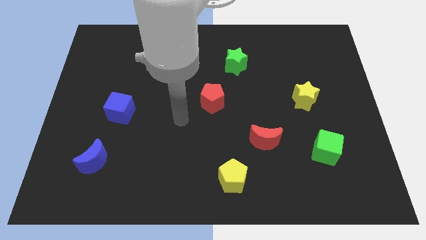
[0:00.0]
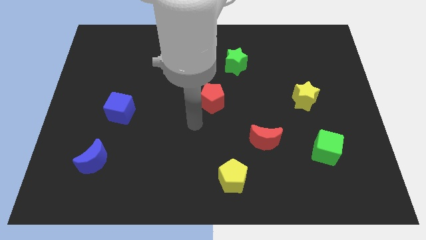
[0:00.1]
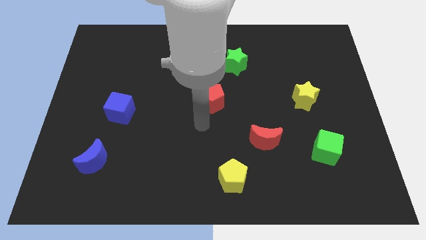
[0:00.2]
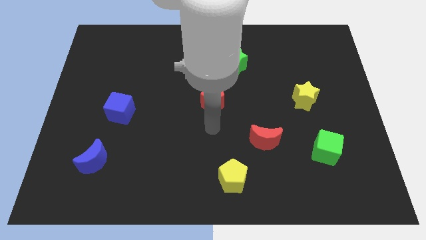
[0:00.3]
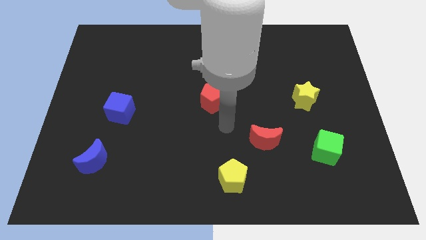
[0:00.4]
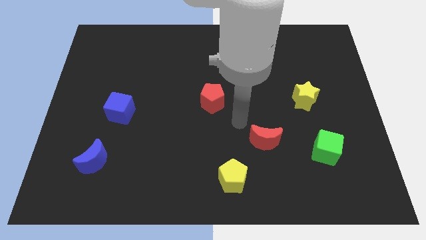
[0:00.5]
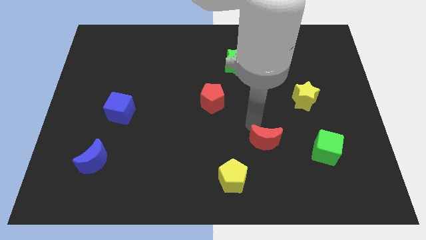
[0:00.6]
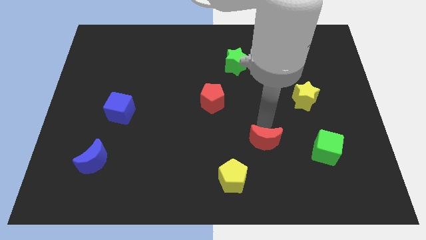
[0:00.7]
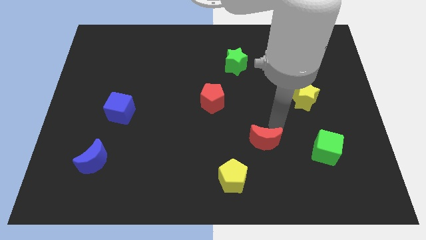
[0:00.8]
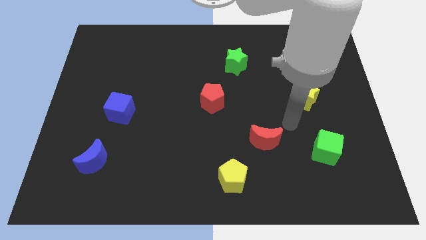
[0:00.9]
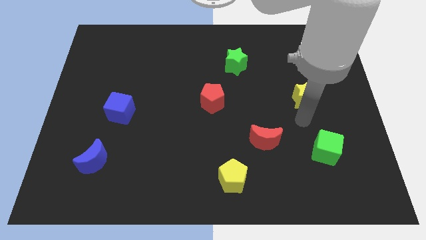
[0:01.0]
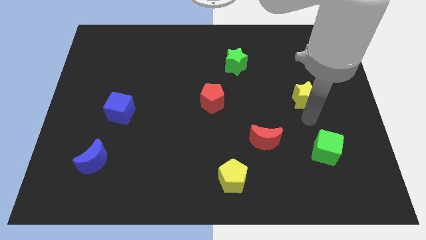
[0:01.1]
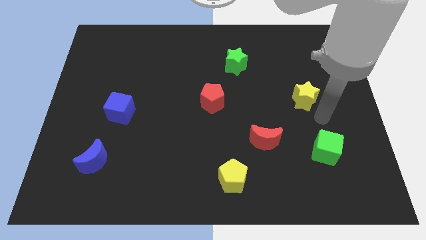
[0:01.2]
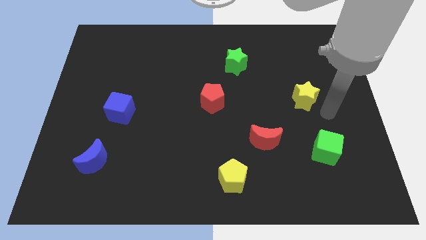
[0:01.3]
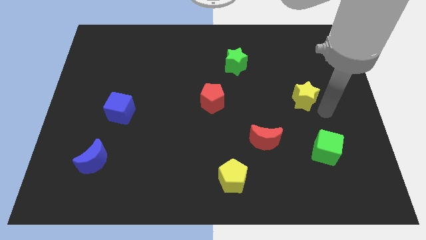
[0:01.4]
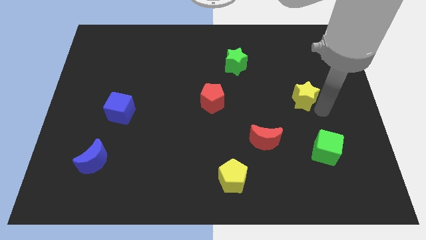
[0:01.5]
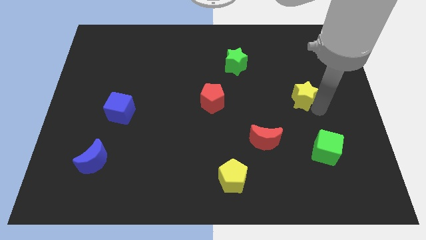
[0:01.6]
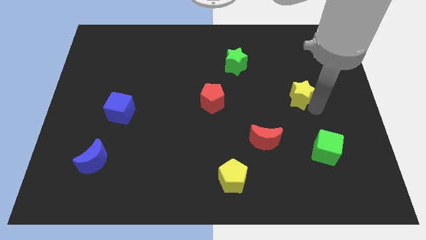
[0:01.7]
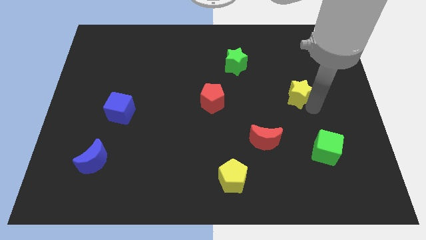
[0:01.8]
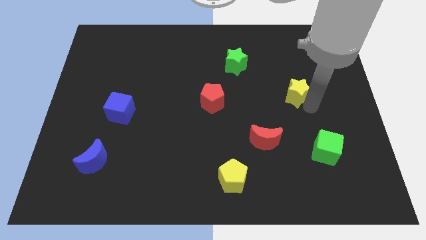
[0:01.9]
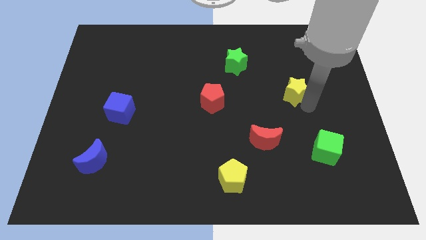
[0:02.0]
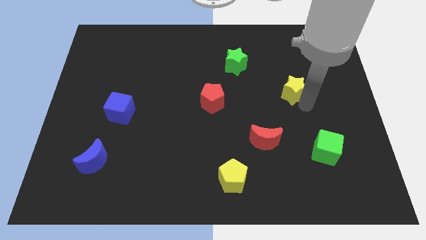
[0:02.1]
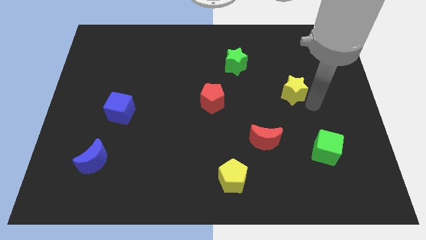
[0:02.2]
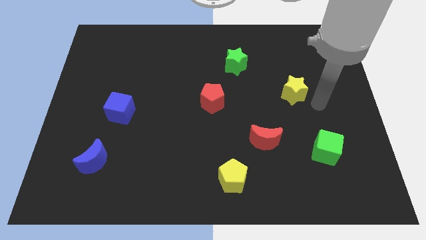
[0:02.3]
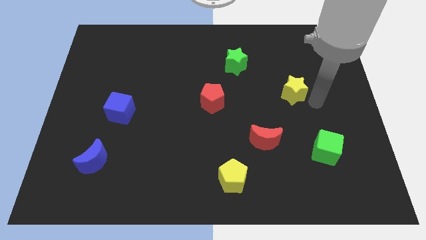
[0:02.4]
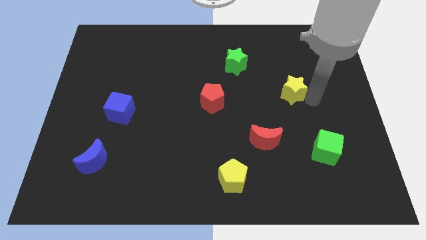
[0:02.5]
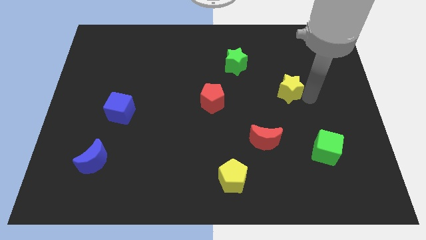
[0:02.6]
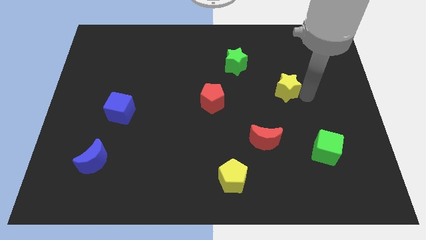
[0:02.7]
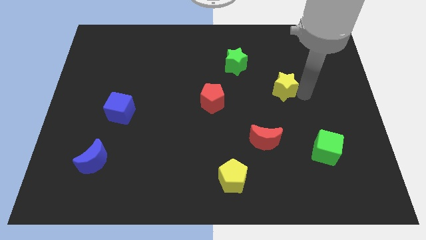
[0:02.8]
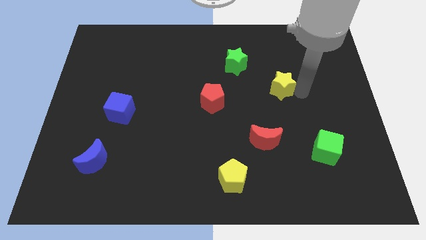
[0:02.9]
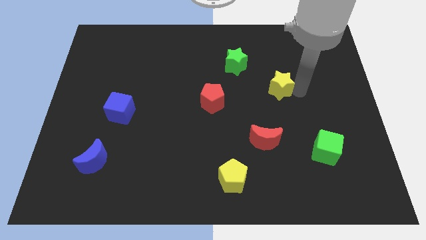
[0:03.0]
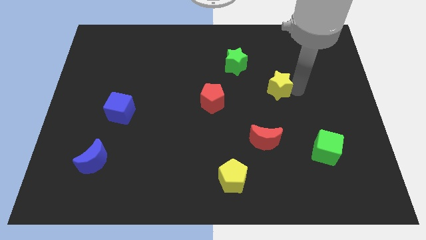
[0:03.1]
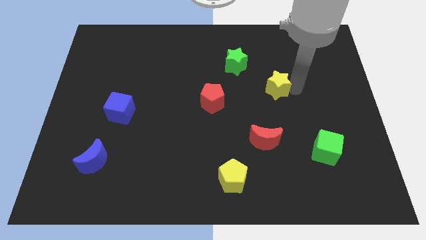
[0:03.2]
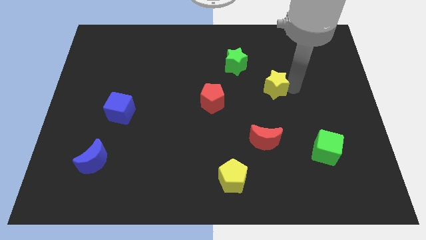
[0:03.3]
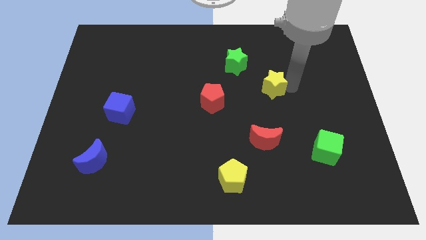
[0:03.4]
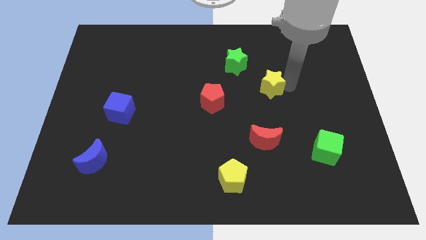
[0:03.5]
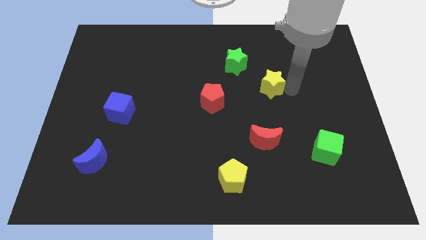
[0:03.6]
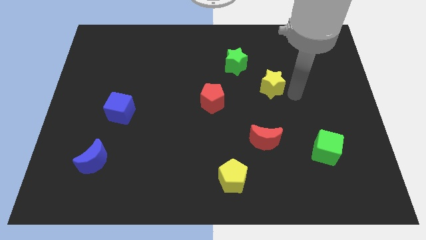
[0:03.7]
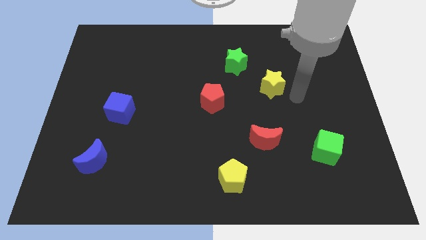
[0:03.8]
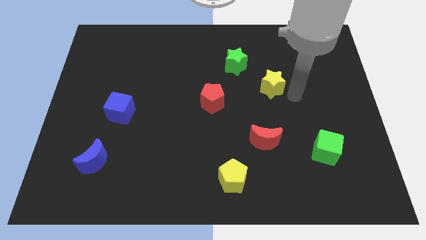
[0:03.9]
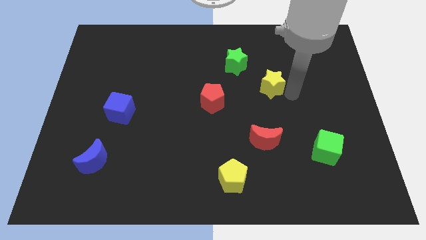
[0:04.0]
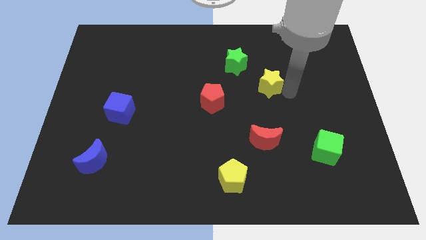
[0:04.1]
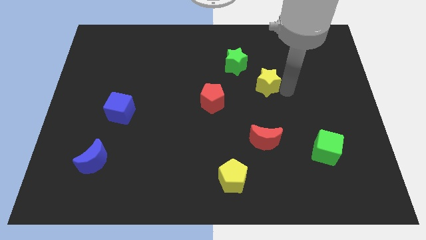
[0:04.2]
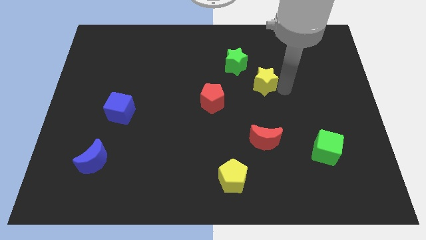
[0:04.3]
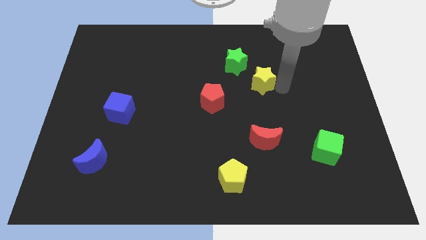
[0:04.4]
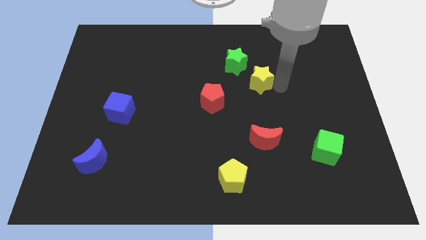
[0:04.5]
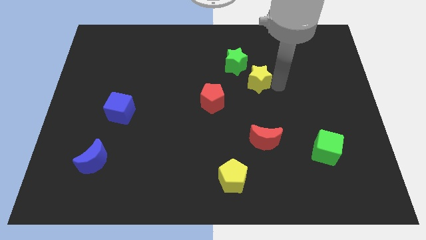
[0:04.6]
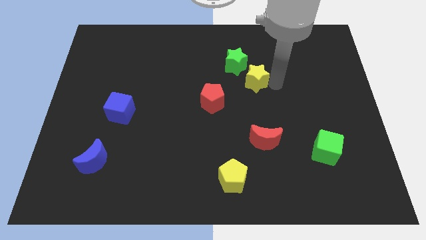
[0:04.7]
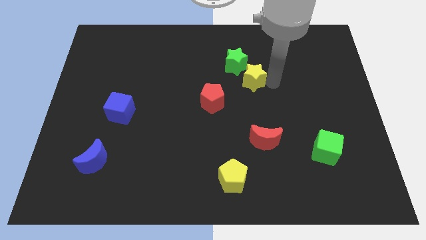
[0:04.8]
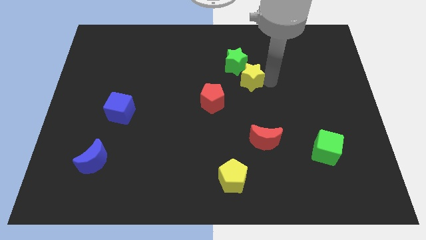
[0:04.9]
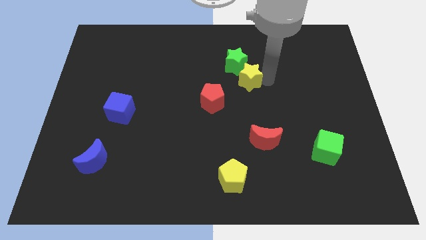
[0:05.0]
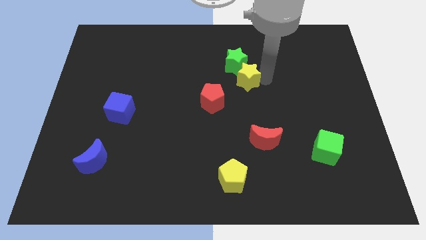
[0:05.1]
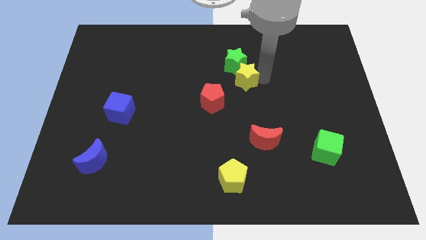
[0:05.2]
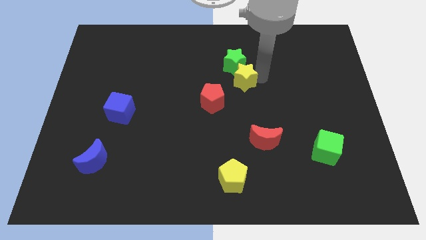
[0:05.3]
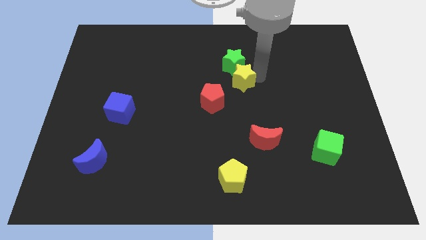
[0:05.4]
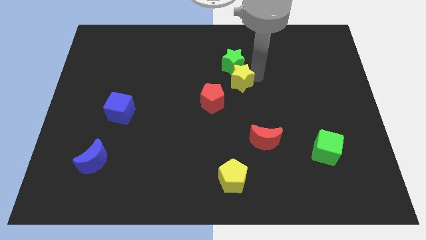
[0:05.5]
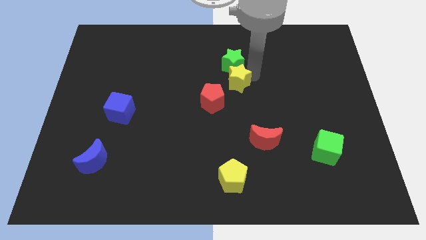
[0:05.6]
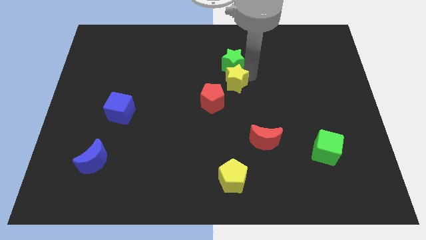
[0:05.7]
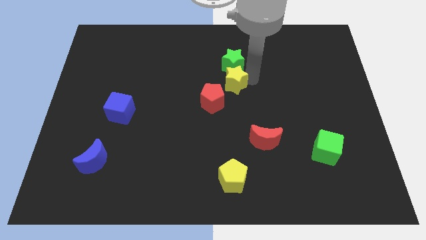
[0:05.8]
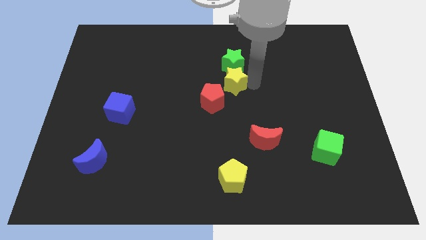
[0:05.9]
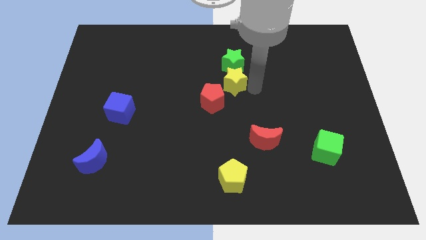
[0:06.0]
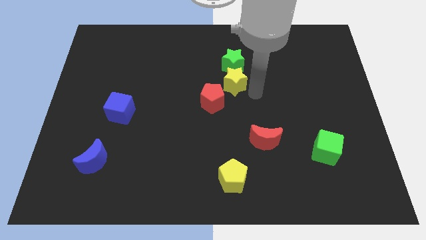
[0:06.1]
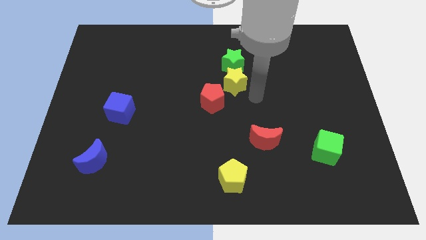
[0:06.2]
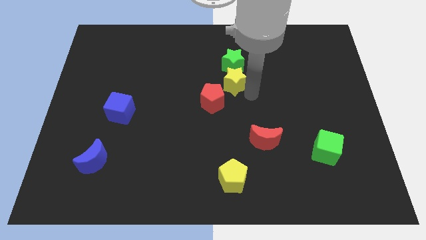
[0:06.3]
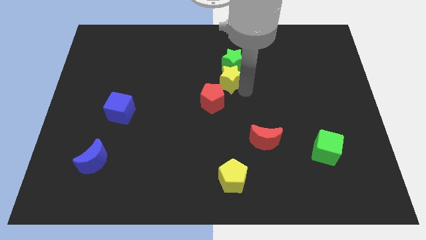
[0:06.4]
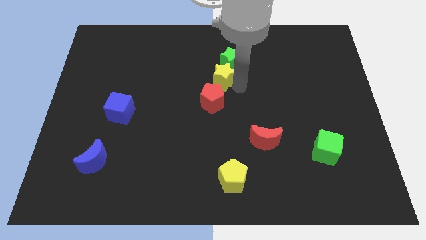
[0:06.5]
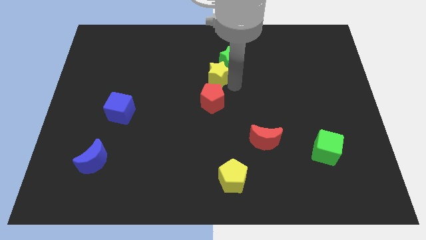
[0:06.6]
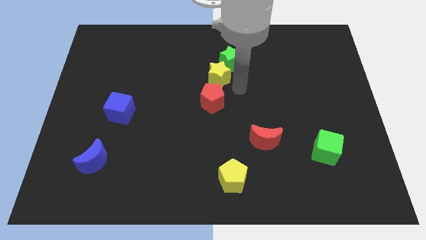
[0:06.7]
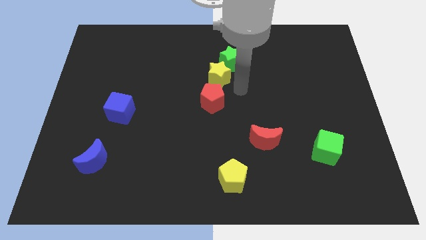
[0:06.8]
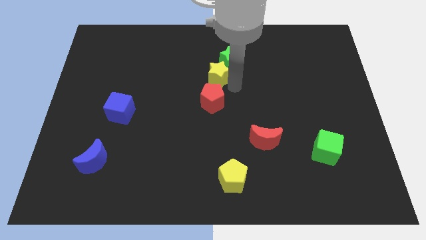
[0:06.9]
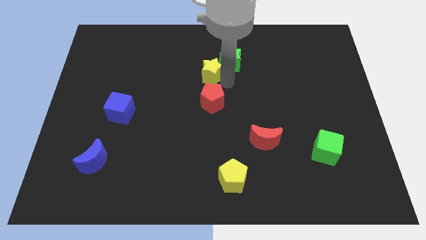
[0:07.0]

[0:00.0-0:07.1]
push the yellow star just left of the green star

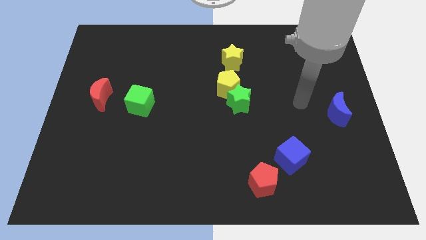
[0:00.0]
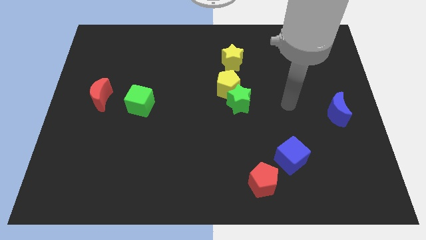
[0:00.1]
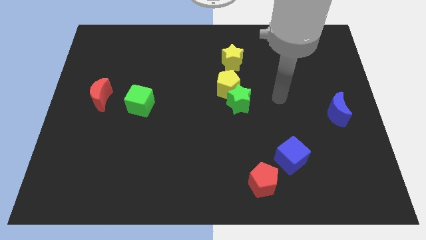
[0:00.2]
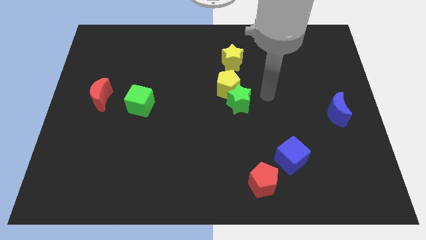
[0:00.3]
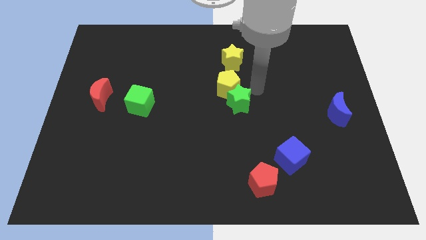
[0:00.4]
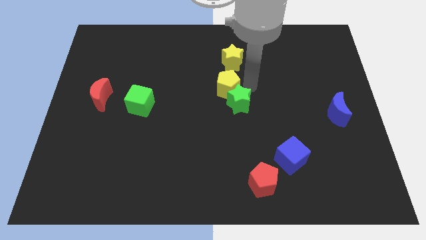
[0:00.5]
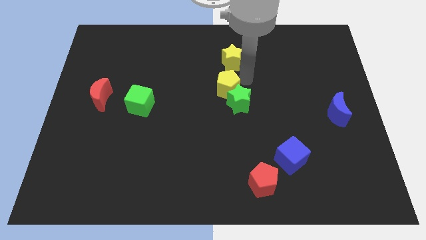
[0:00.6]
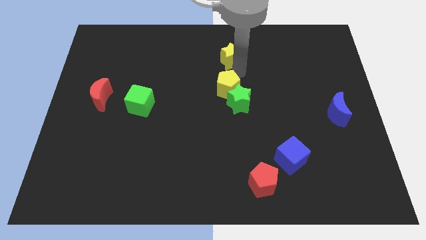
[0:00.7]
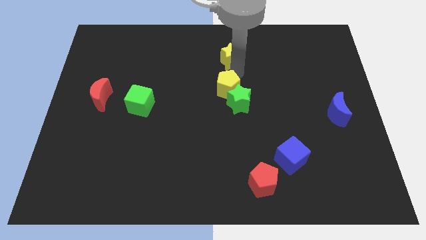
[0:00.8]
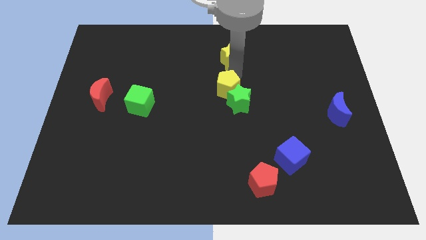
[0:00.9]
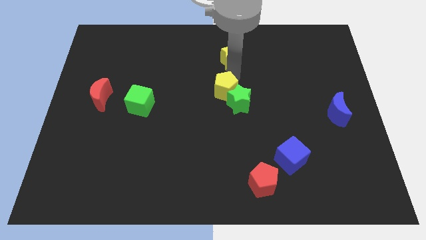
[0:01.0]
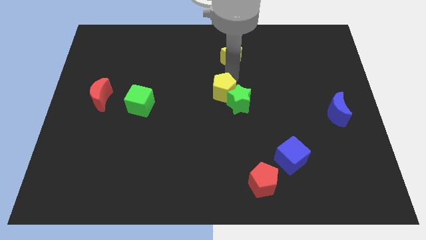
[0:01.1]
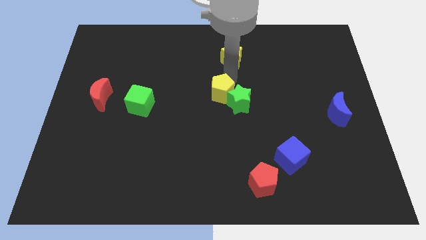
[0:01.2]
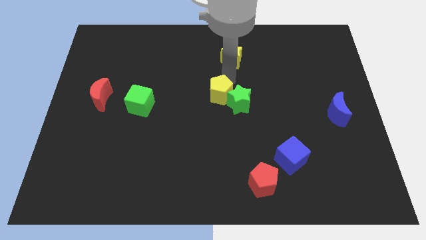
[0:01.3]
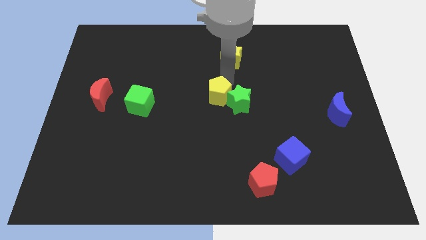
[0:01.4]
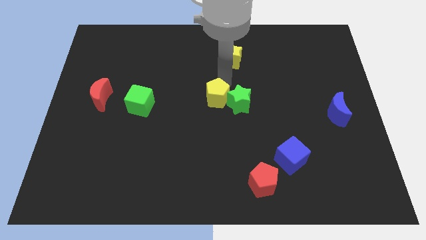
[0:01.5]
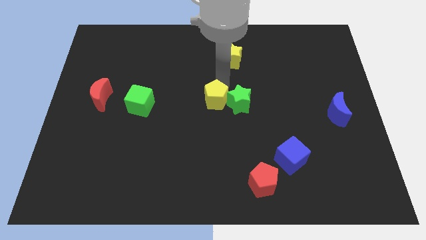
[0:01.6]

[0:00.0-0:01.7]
move the yellow pentagon to the bottom left side of the green star
